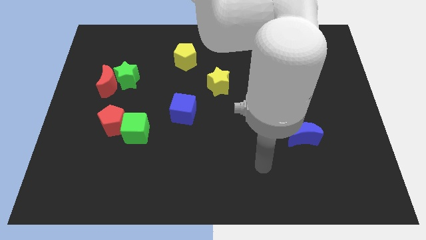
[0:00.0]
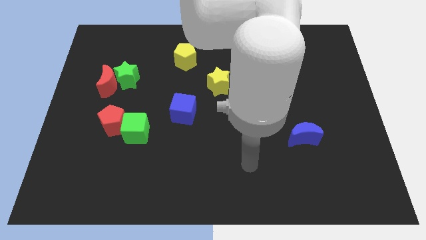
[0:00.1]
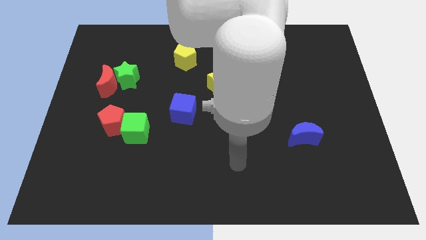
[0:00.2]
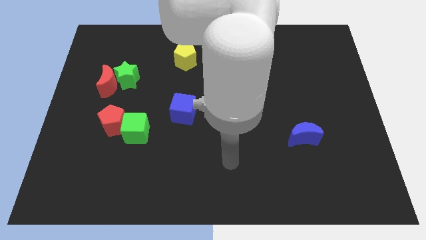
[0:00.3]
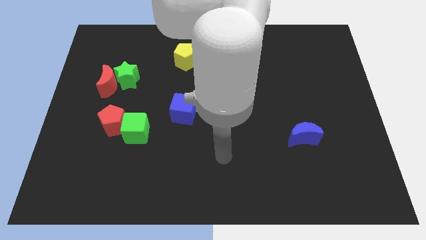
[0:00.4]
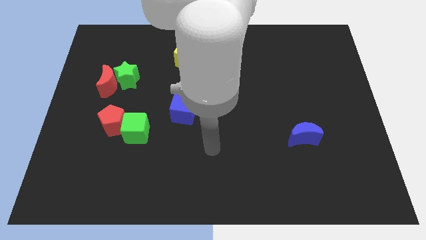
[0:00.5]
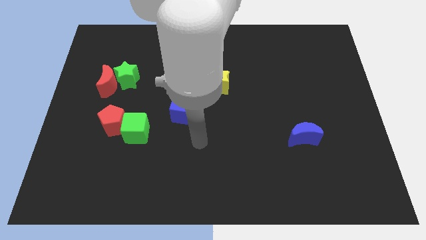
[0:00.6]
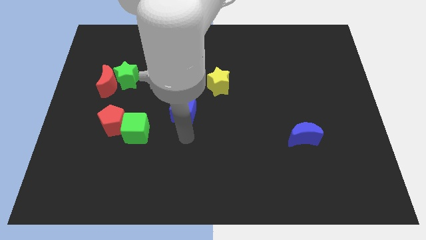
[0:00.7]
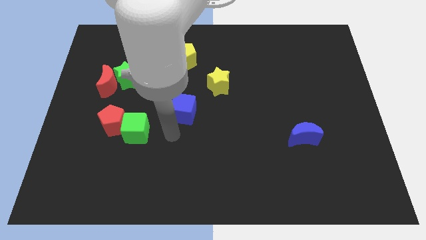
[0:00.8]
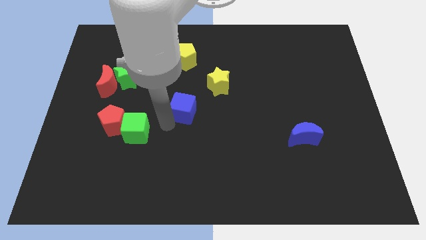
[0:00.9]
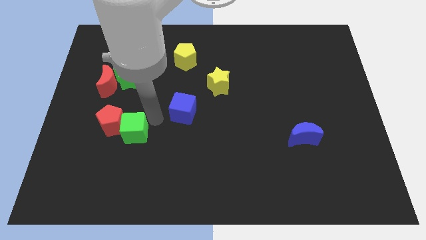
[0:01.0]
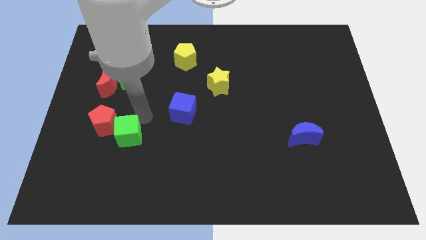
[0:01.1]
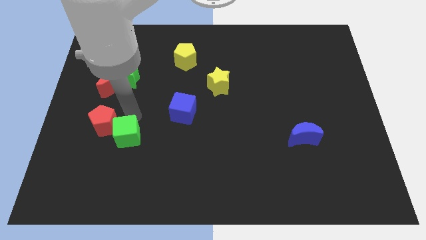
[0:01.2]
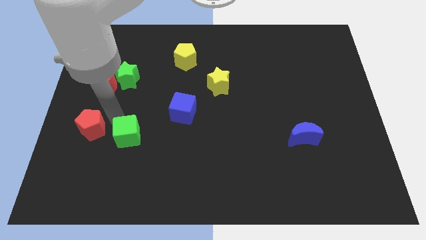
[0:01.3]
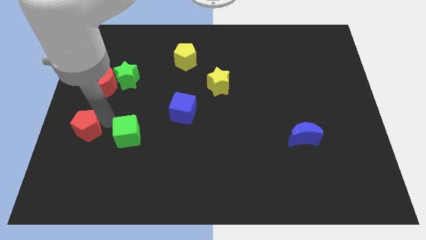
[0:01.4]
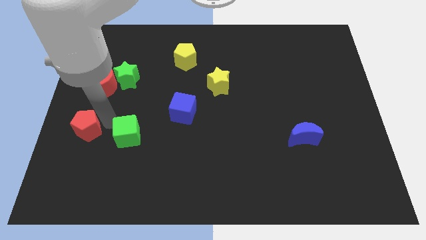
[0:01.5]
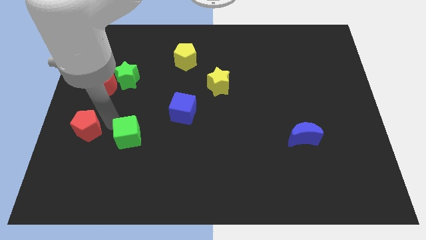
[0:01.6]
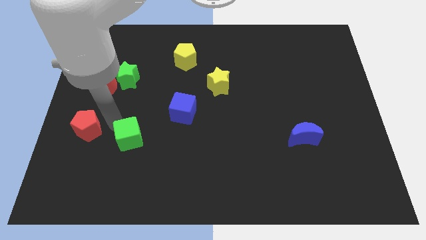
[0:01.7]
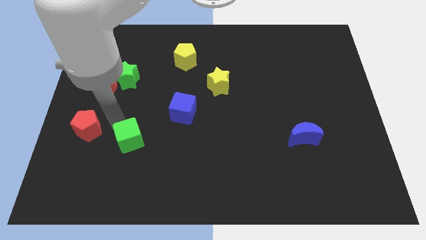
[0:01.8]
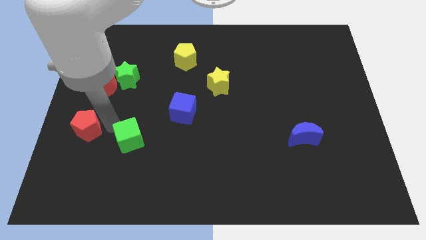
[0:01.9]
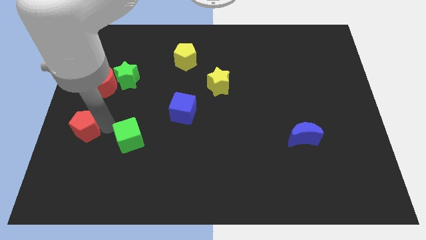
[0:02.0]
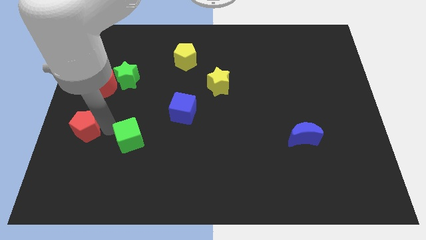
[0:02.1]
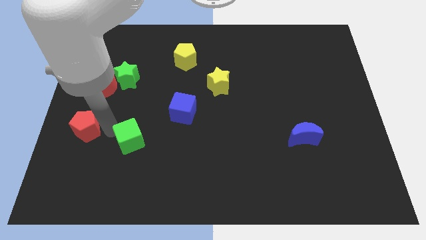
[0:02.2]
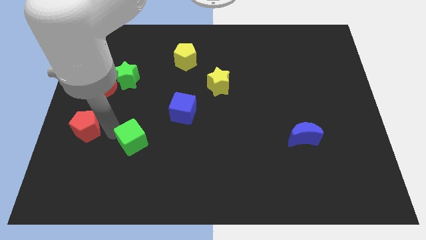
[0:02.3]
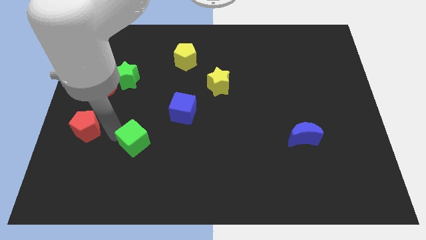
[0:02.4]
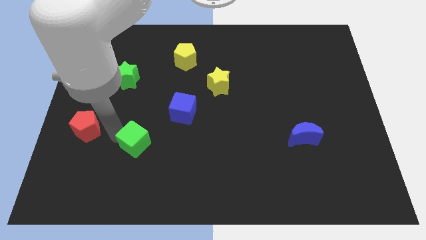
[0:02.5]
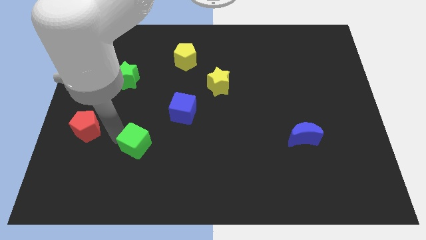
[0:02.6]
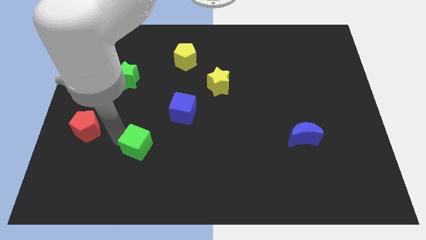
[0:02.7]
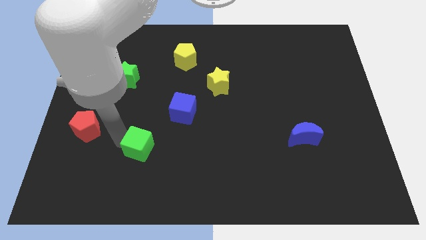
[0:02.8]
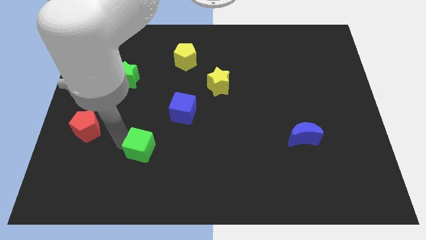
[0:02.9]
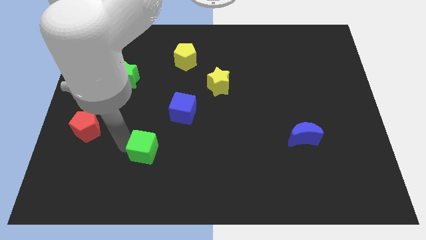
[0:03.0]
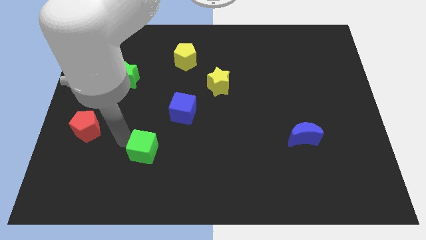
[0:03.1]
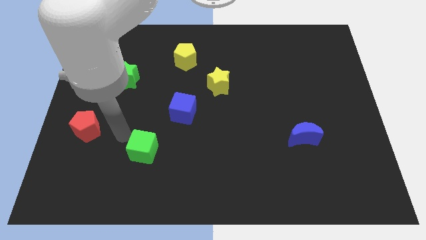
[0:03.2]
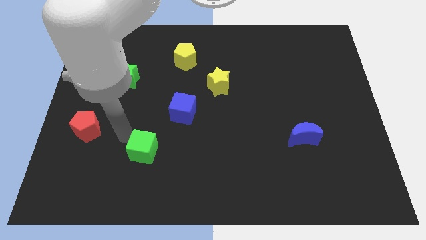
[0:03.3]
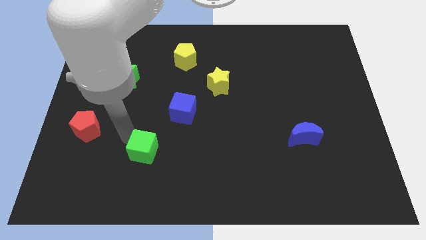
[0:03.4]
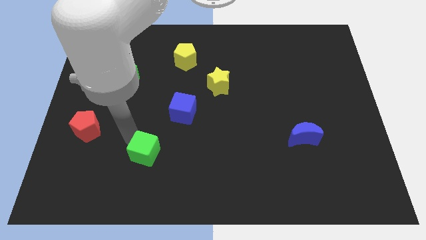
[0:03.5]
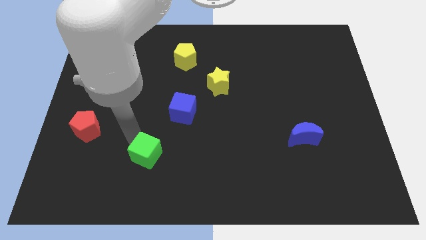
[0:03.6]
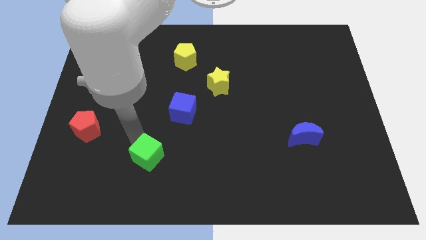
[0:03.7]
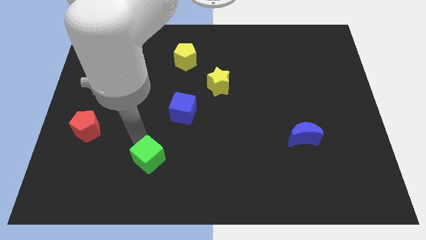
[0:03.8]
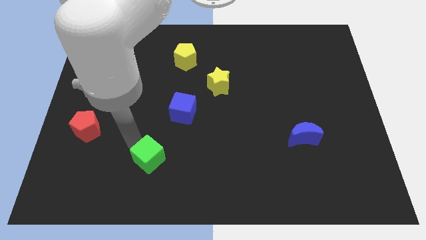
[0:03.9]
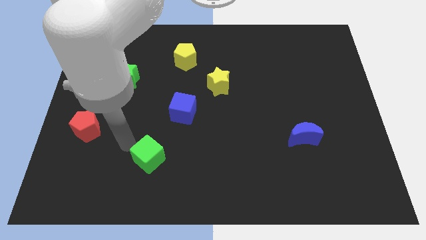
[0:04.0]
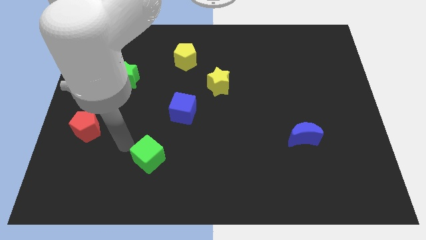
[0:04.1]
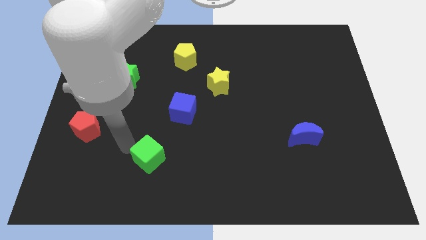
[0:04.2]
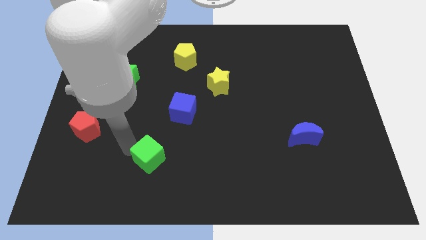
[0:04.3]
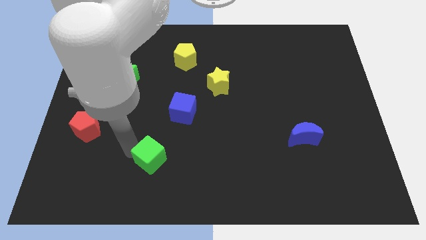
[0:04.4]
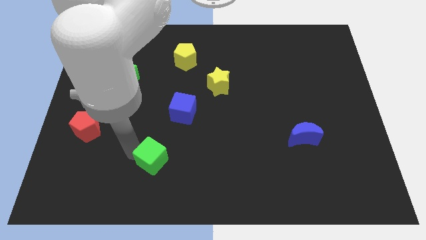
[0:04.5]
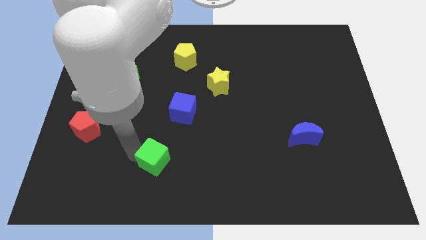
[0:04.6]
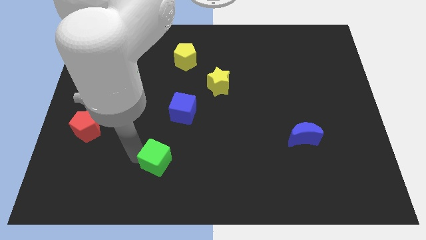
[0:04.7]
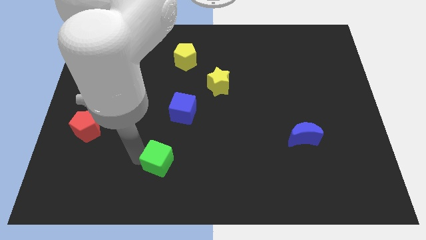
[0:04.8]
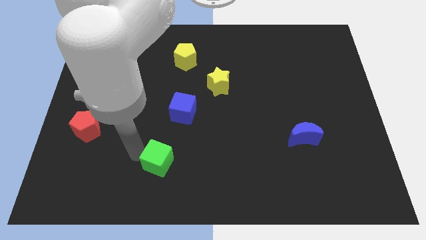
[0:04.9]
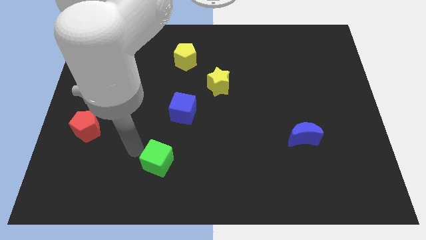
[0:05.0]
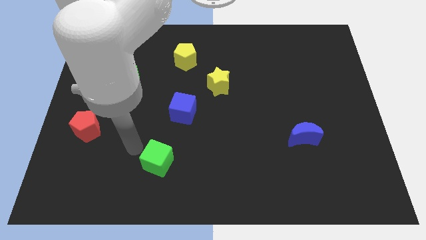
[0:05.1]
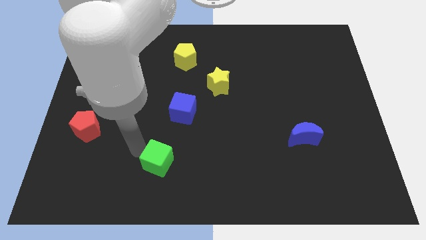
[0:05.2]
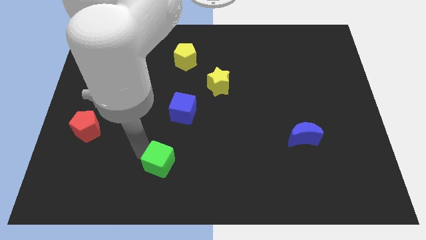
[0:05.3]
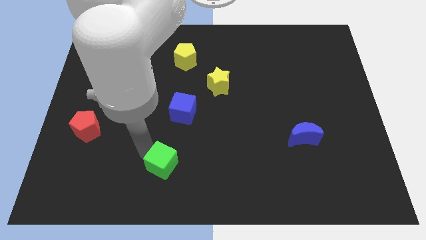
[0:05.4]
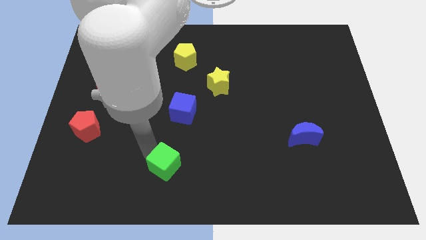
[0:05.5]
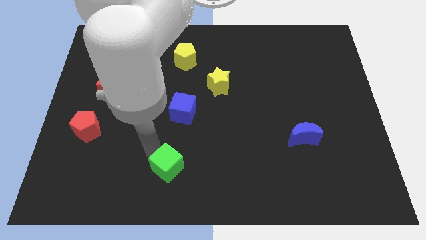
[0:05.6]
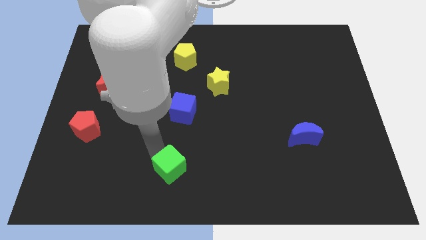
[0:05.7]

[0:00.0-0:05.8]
move the green cube to the bottom side

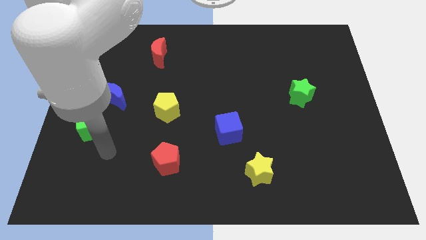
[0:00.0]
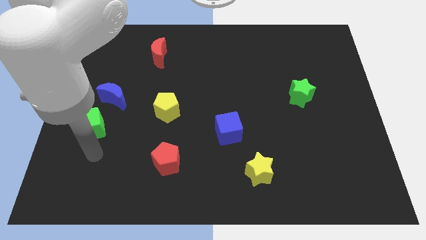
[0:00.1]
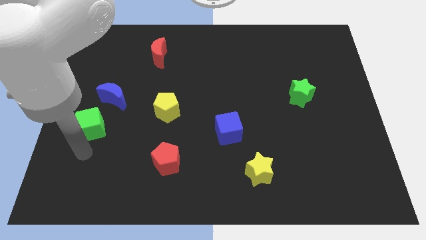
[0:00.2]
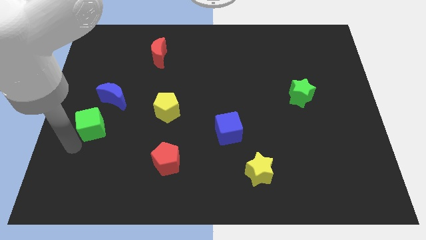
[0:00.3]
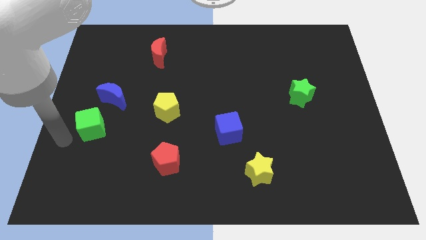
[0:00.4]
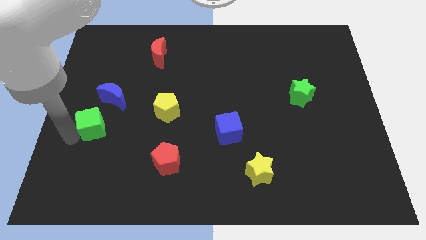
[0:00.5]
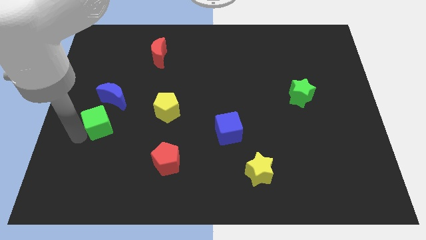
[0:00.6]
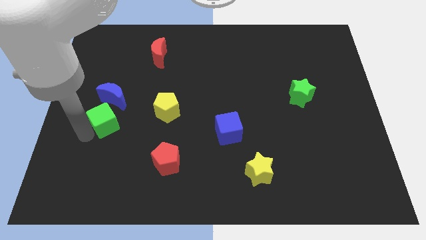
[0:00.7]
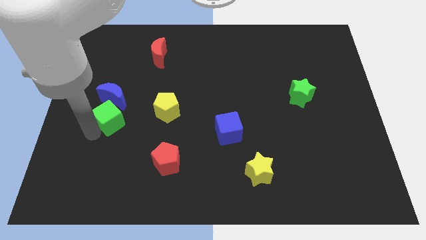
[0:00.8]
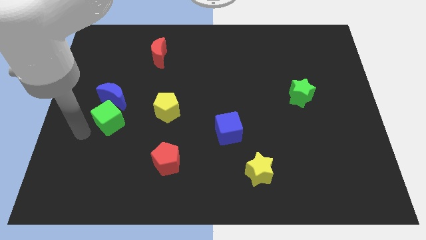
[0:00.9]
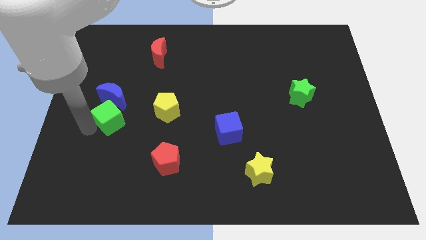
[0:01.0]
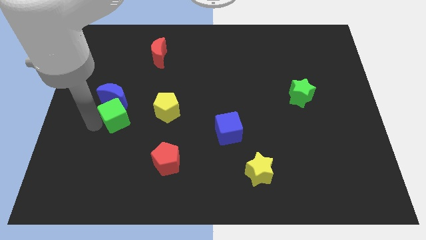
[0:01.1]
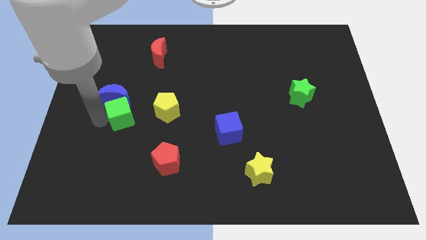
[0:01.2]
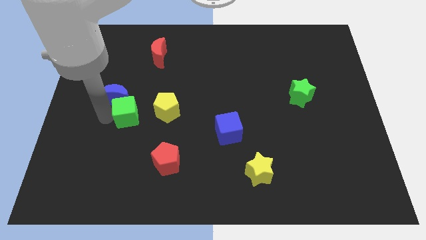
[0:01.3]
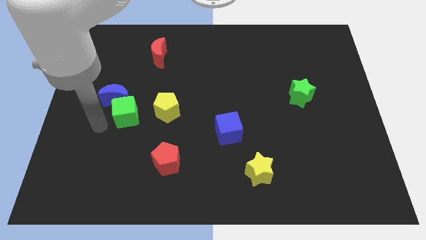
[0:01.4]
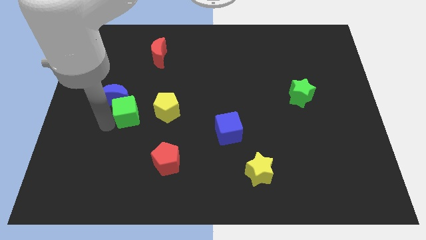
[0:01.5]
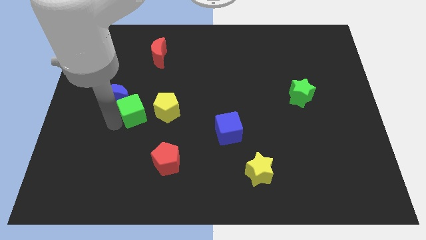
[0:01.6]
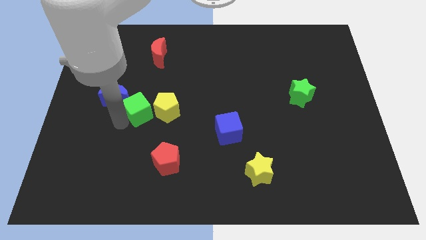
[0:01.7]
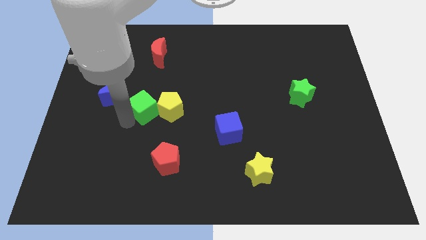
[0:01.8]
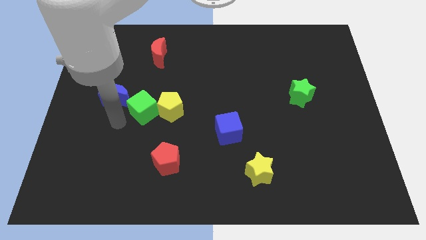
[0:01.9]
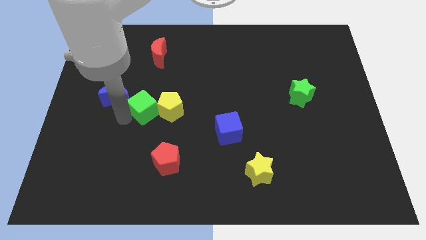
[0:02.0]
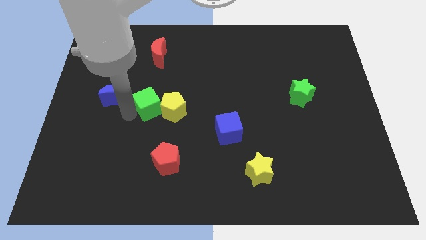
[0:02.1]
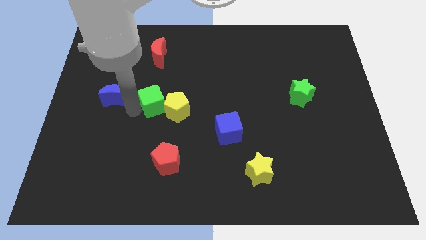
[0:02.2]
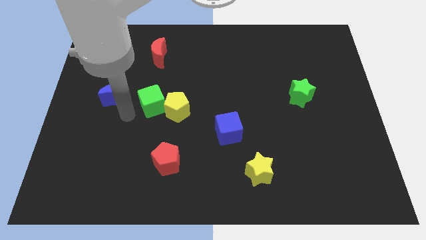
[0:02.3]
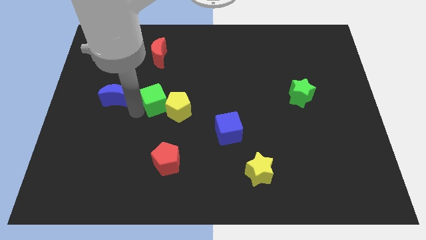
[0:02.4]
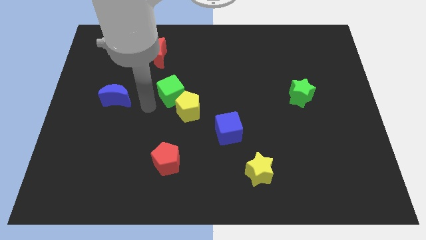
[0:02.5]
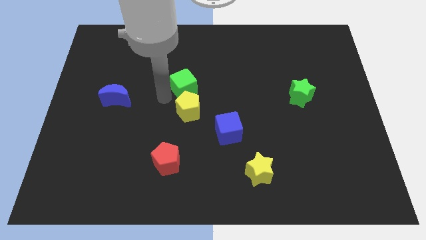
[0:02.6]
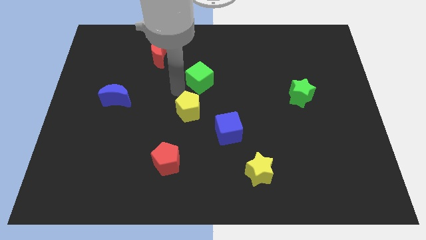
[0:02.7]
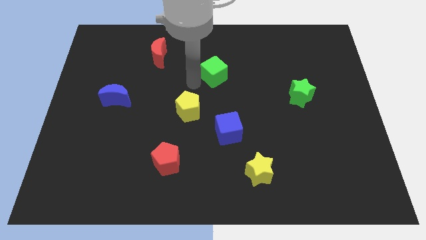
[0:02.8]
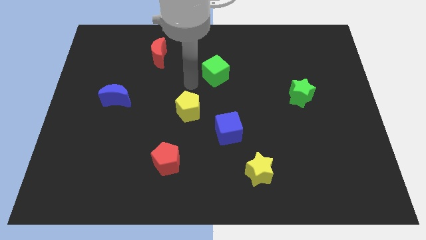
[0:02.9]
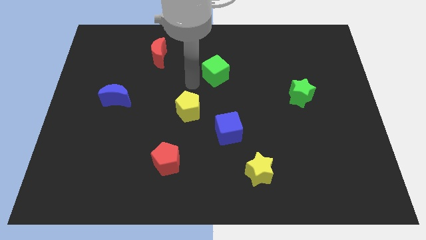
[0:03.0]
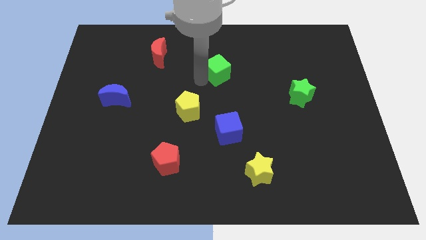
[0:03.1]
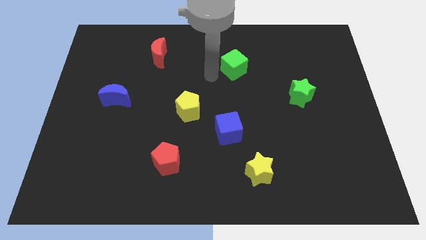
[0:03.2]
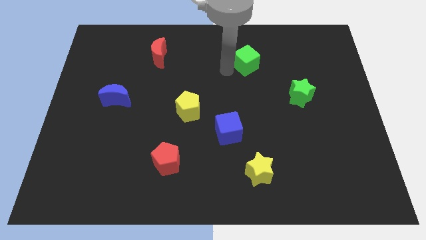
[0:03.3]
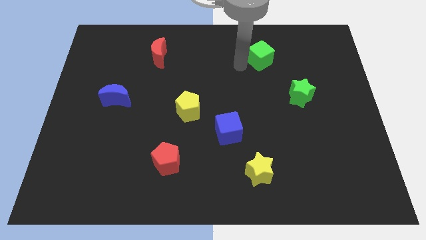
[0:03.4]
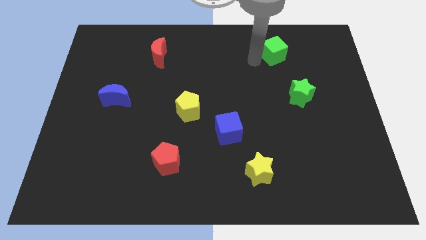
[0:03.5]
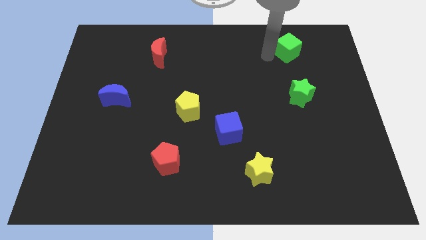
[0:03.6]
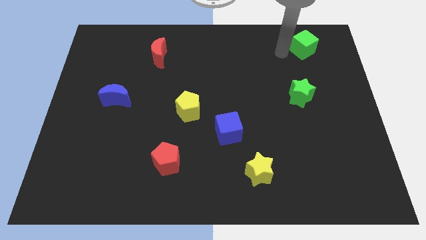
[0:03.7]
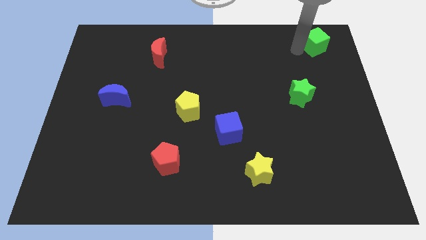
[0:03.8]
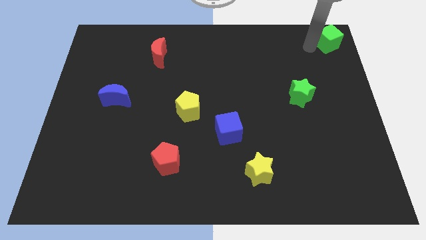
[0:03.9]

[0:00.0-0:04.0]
push the green cube to the top right corner
